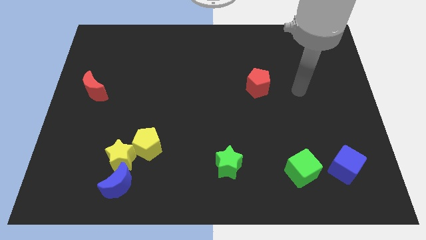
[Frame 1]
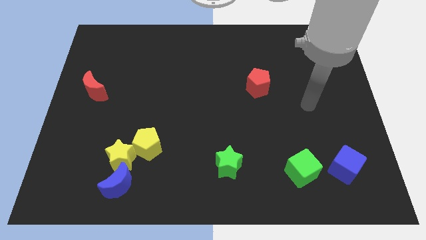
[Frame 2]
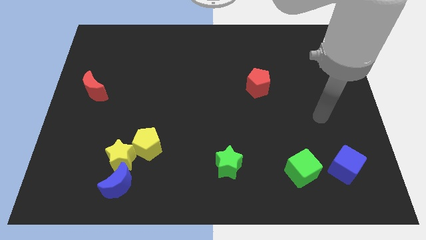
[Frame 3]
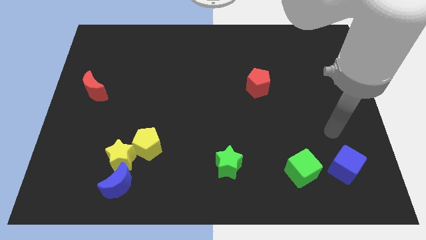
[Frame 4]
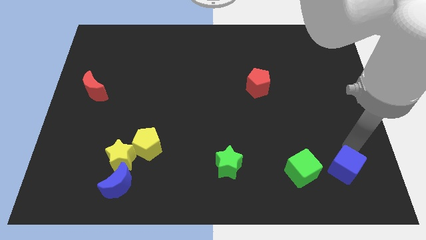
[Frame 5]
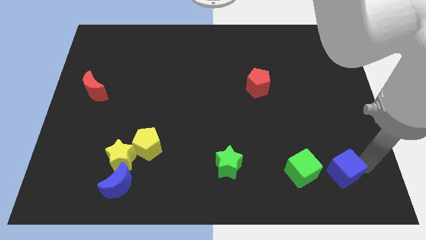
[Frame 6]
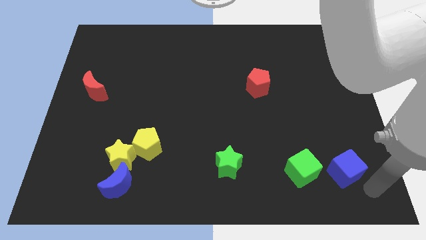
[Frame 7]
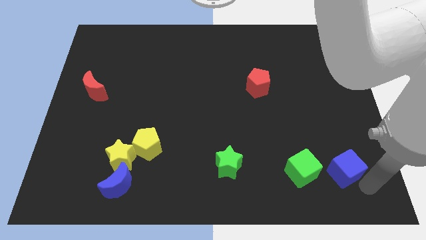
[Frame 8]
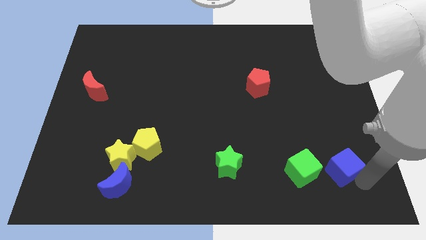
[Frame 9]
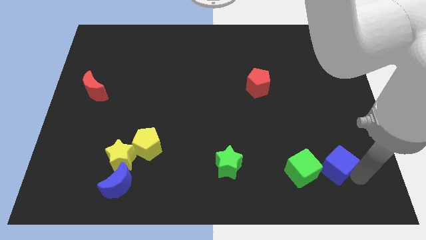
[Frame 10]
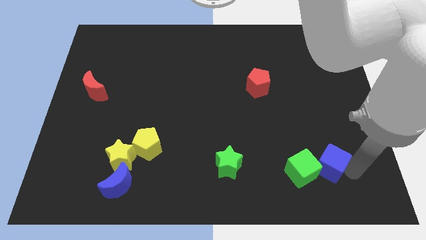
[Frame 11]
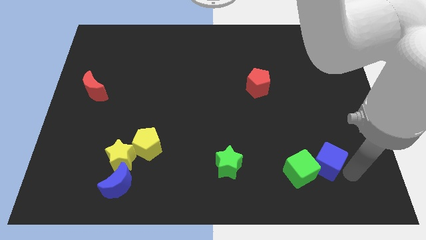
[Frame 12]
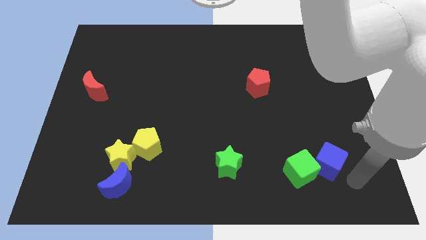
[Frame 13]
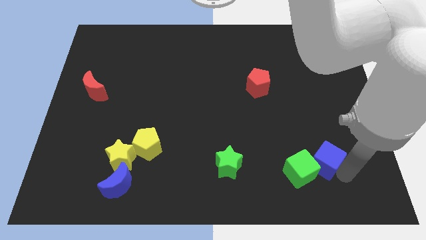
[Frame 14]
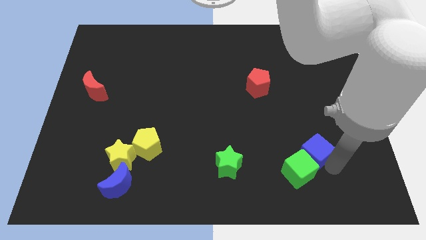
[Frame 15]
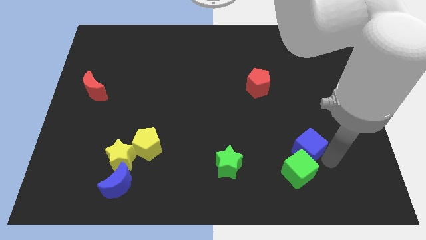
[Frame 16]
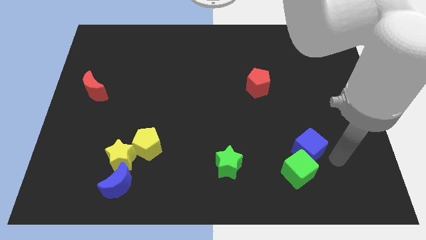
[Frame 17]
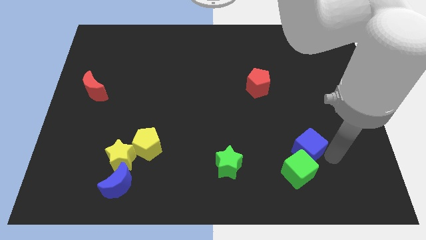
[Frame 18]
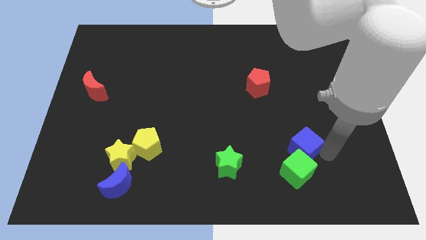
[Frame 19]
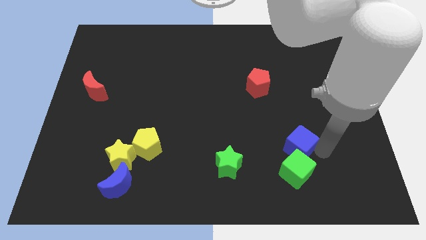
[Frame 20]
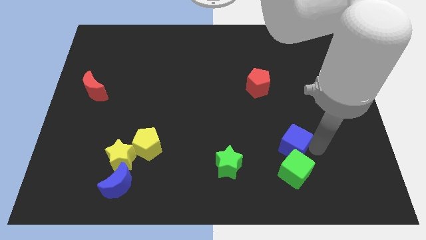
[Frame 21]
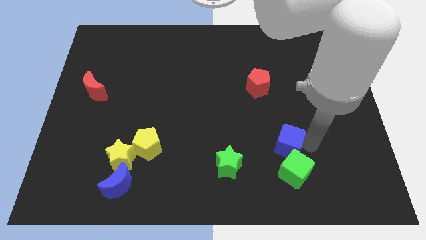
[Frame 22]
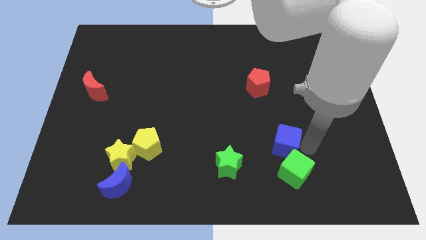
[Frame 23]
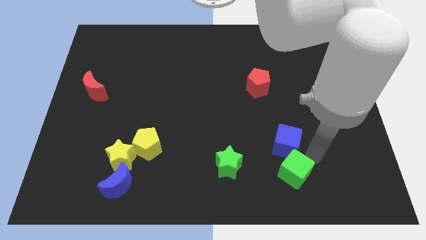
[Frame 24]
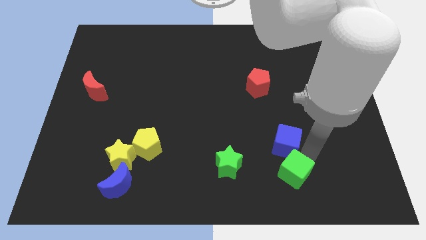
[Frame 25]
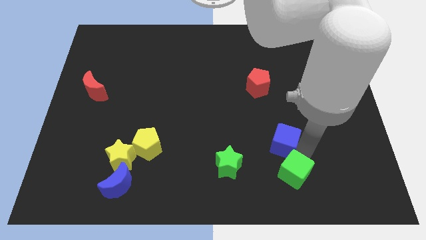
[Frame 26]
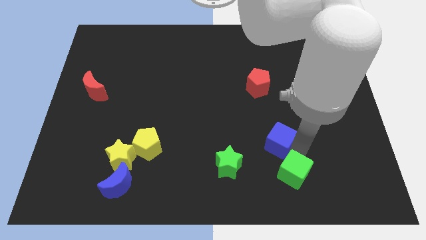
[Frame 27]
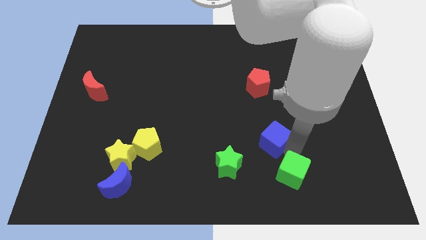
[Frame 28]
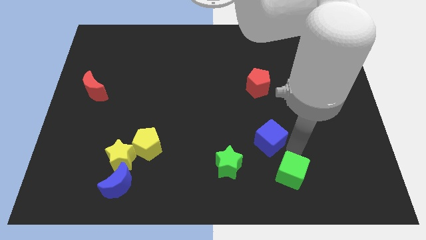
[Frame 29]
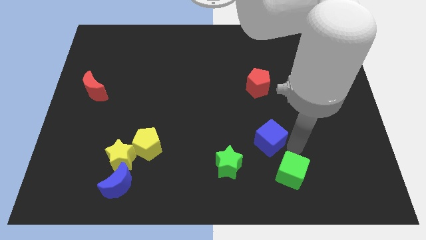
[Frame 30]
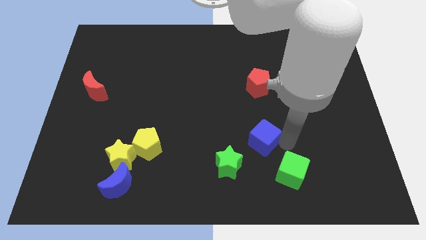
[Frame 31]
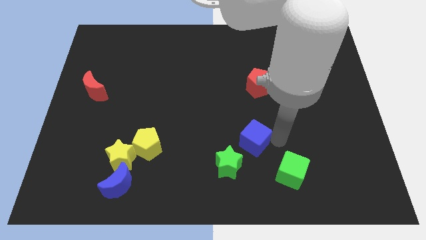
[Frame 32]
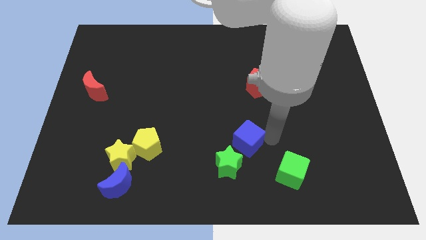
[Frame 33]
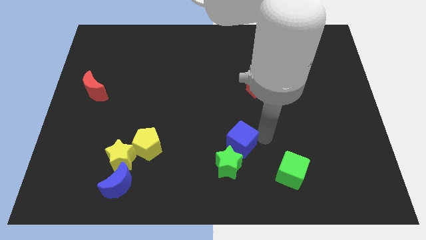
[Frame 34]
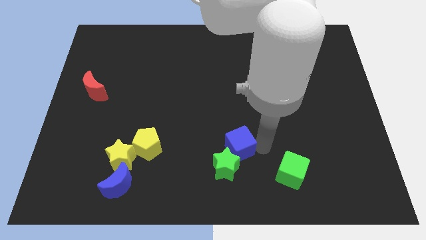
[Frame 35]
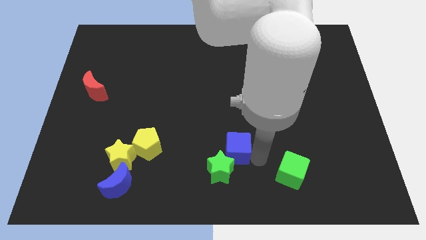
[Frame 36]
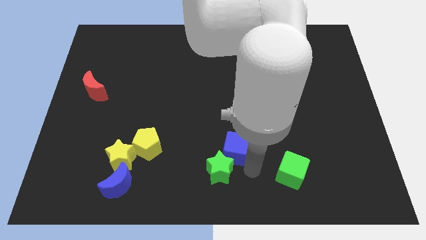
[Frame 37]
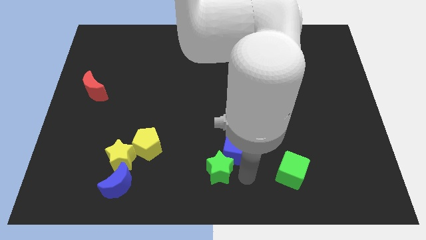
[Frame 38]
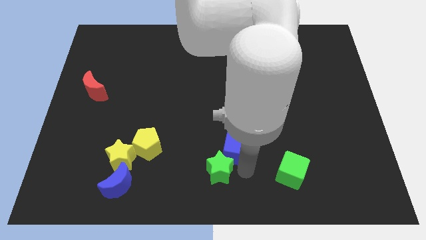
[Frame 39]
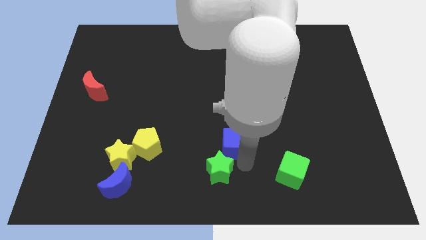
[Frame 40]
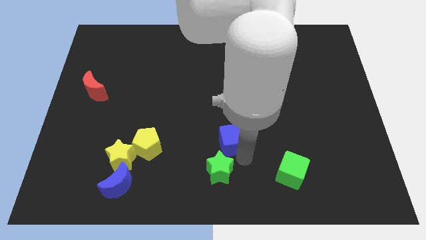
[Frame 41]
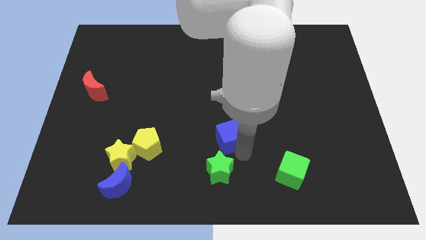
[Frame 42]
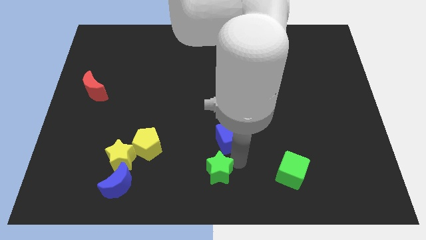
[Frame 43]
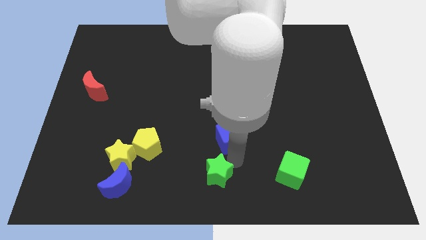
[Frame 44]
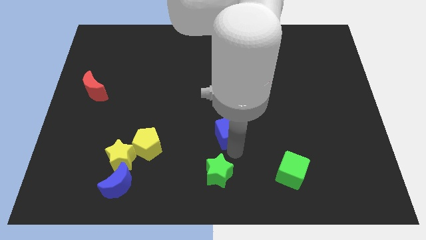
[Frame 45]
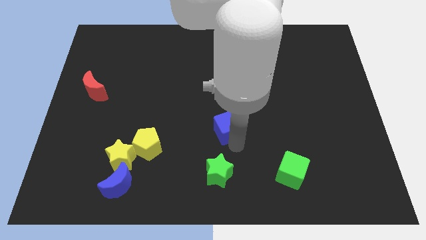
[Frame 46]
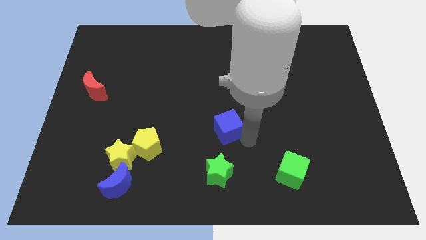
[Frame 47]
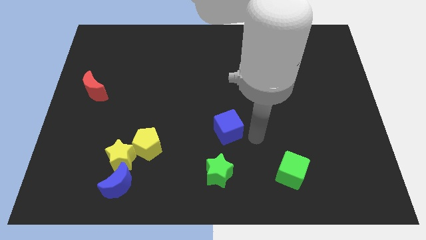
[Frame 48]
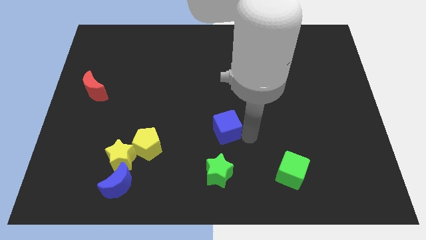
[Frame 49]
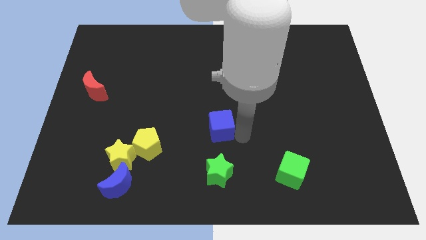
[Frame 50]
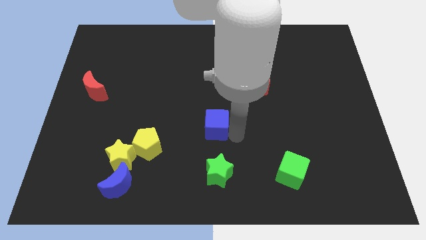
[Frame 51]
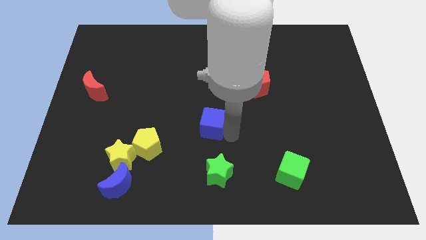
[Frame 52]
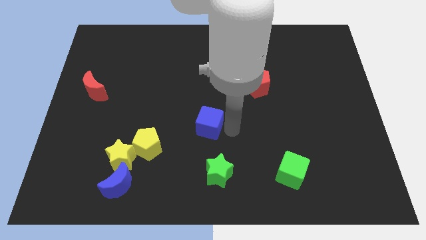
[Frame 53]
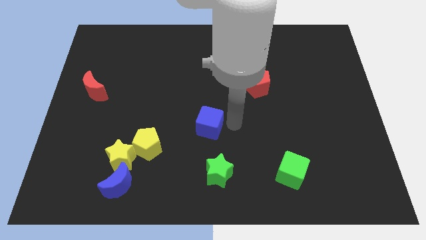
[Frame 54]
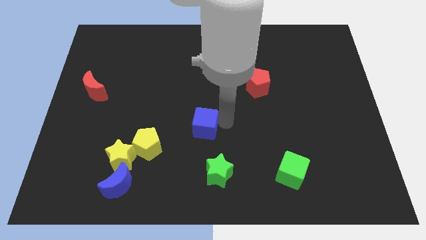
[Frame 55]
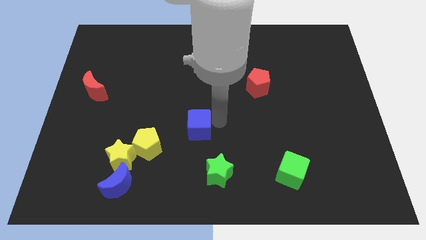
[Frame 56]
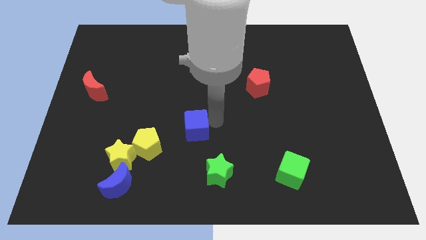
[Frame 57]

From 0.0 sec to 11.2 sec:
push the blue cube to the top right side of the yellow pentagon
